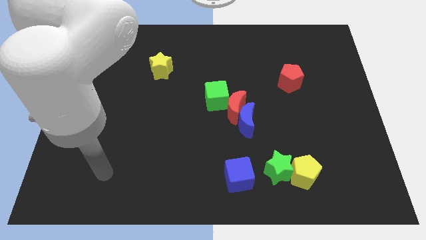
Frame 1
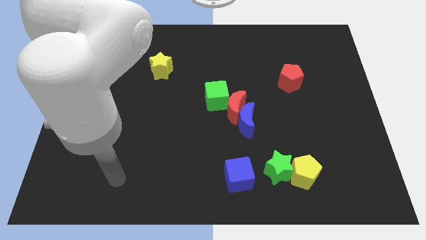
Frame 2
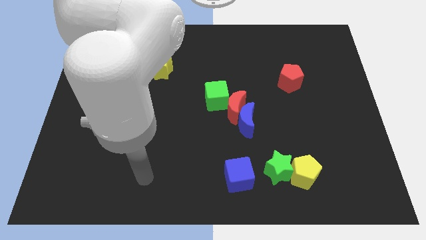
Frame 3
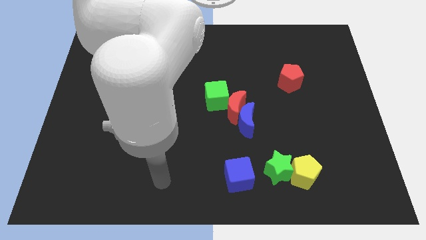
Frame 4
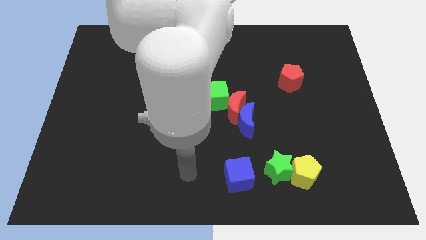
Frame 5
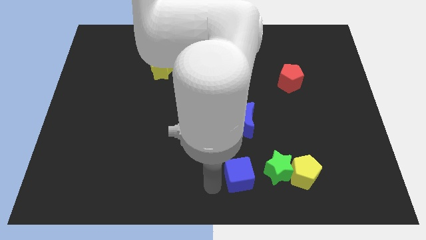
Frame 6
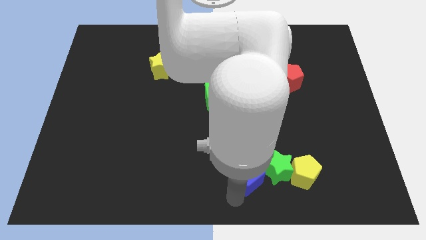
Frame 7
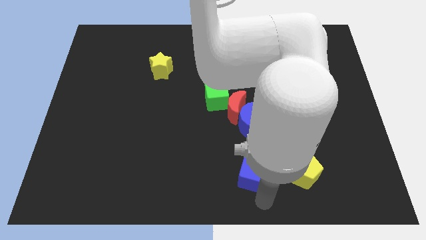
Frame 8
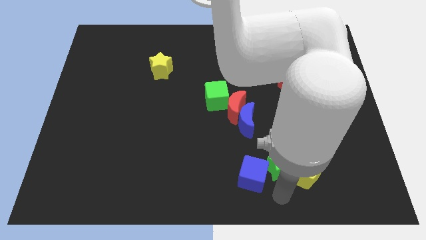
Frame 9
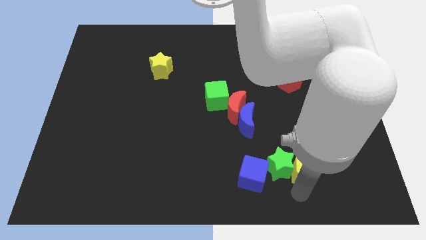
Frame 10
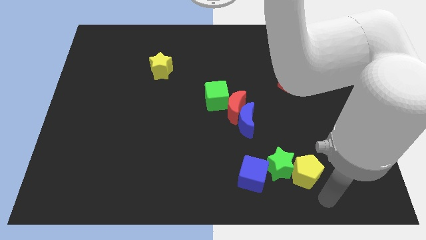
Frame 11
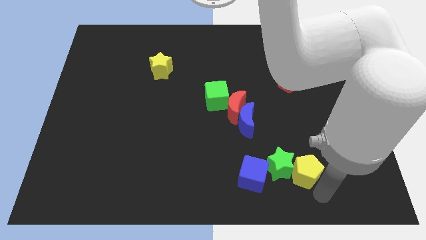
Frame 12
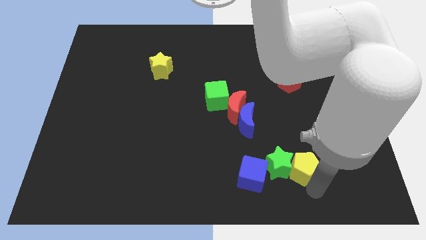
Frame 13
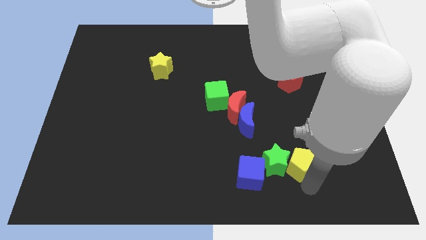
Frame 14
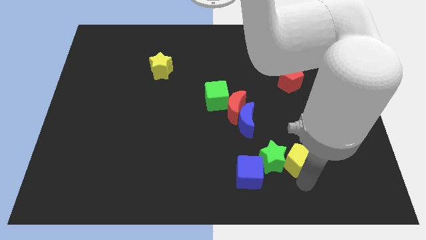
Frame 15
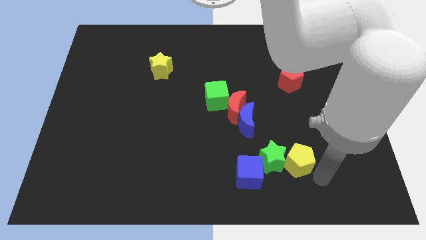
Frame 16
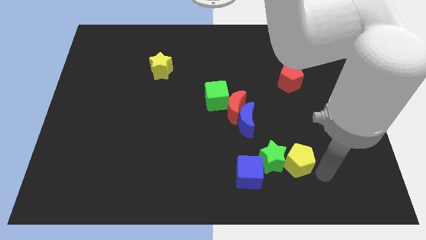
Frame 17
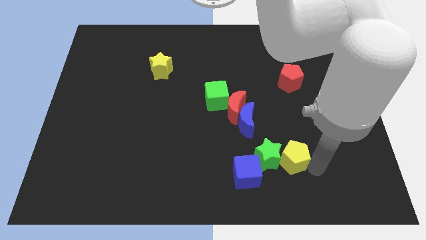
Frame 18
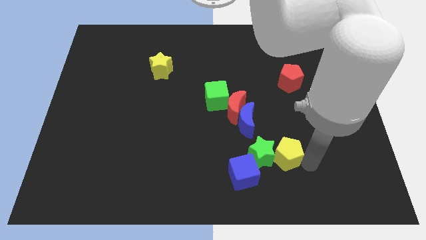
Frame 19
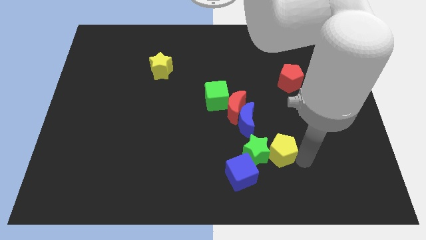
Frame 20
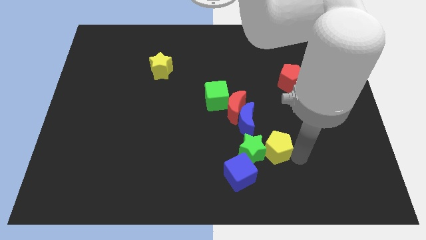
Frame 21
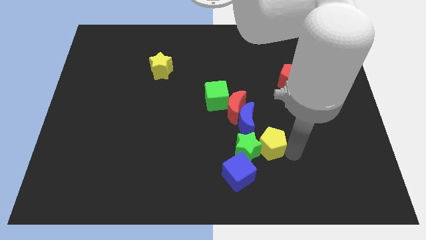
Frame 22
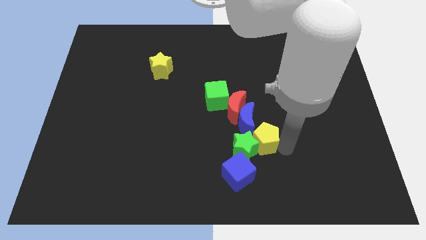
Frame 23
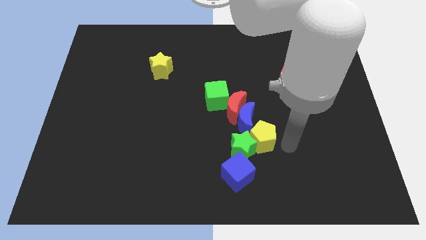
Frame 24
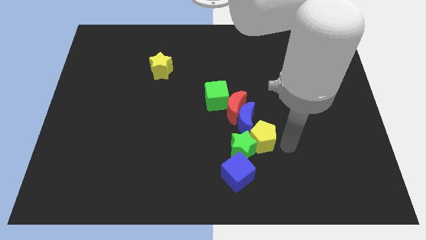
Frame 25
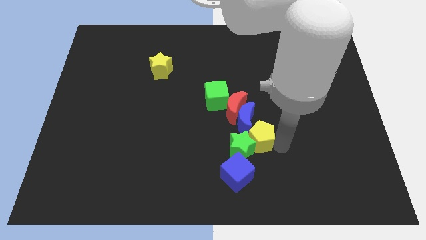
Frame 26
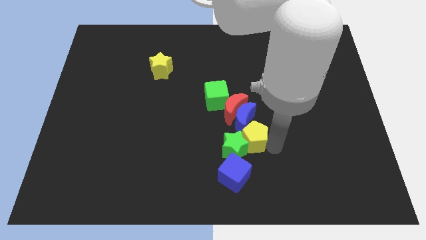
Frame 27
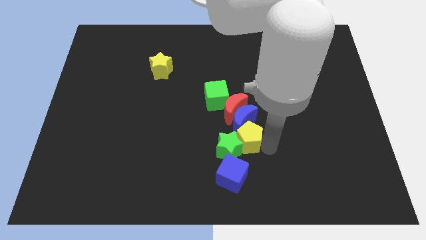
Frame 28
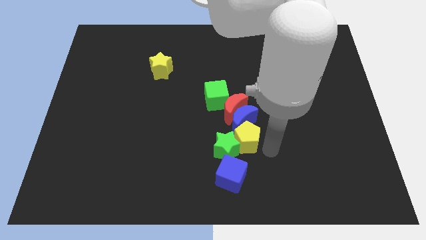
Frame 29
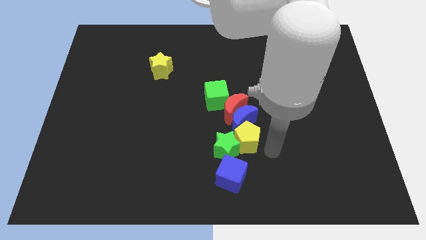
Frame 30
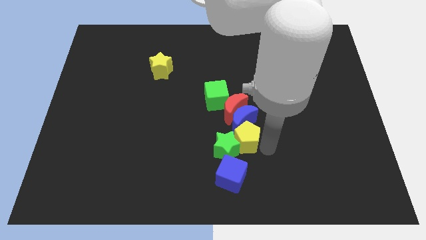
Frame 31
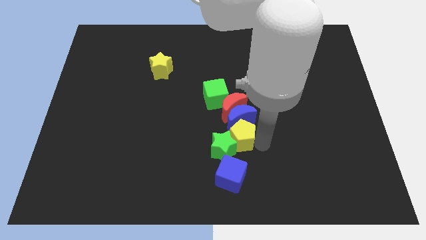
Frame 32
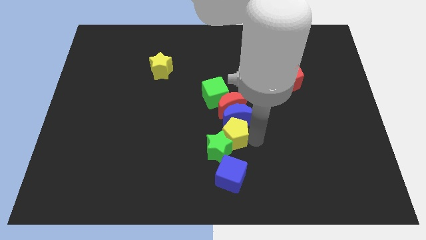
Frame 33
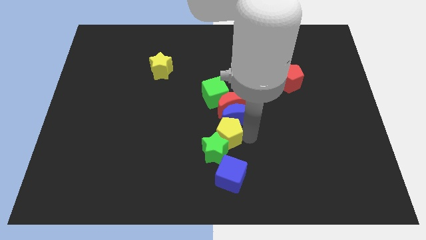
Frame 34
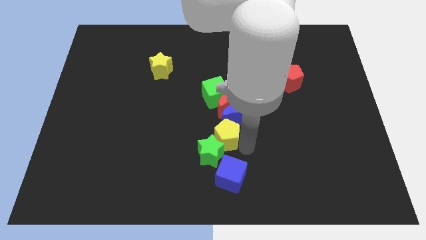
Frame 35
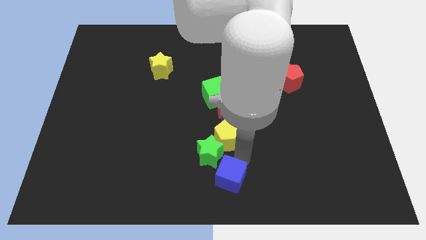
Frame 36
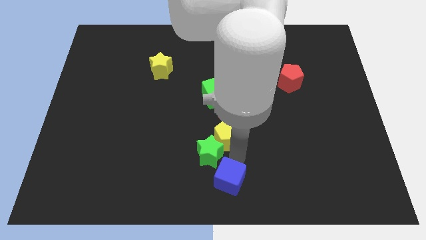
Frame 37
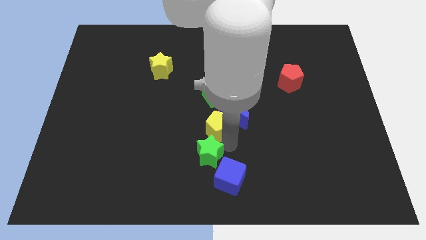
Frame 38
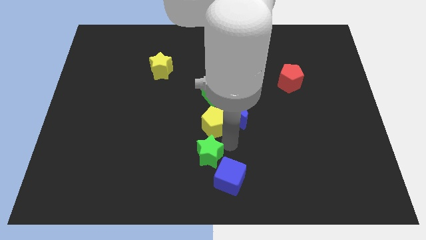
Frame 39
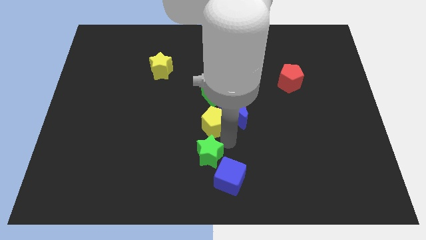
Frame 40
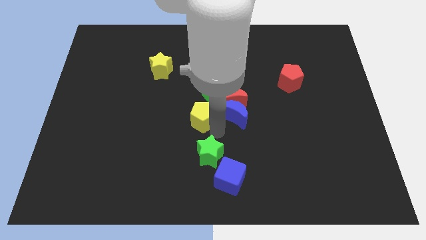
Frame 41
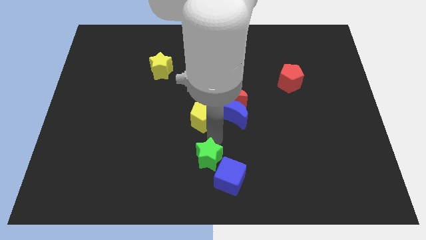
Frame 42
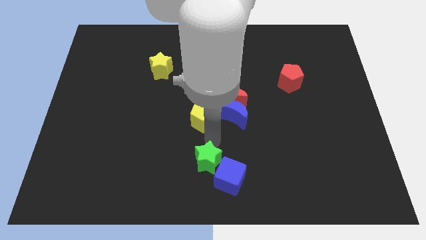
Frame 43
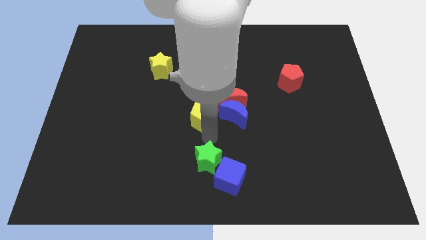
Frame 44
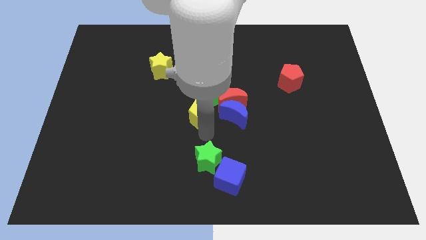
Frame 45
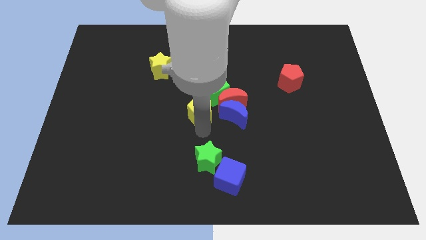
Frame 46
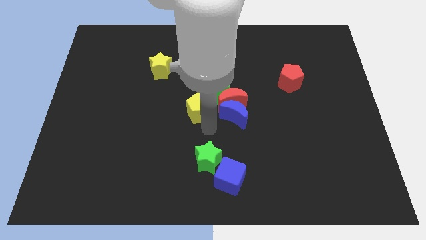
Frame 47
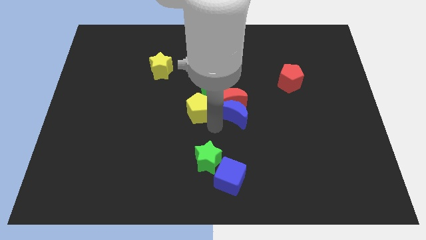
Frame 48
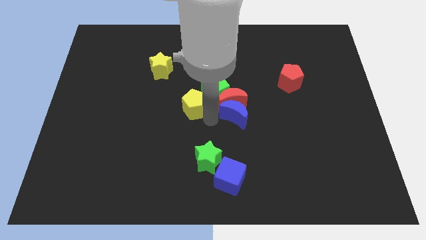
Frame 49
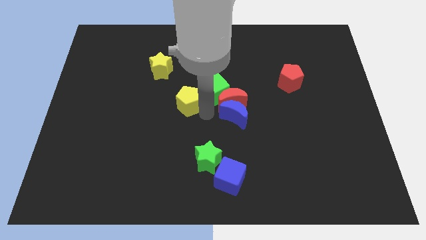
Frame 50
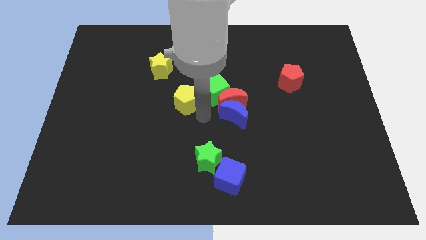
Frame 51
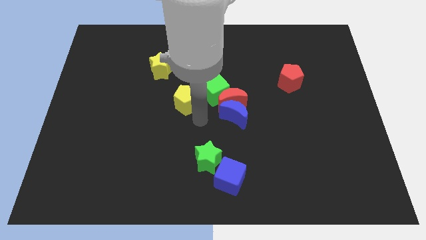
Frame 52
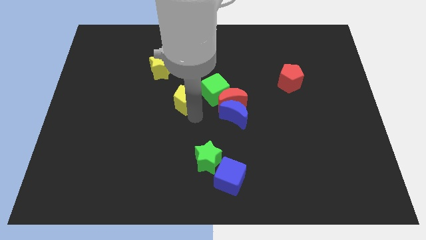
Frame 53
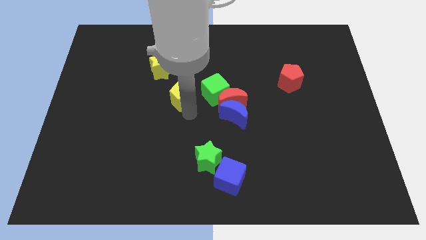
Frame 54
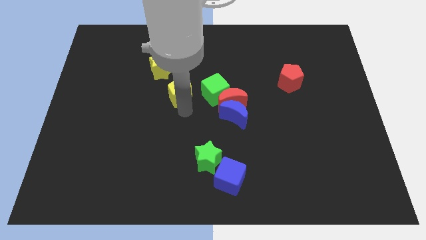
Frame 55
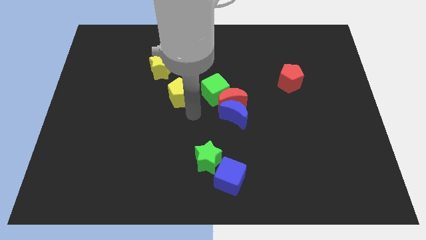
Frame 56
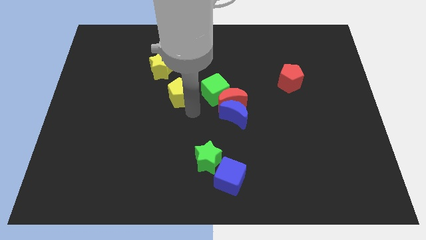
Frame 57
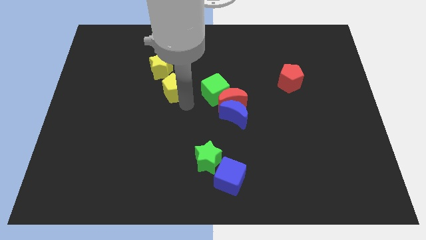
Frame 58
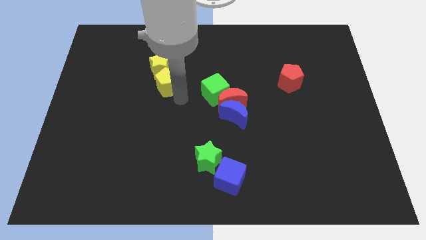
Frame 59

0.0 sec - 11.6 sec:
put the yellow pentagon close to the yellow star

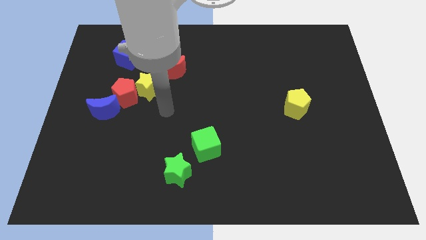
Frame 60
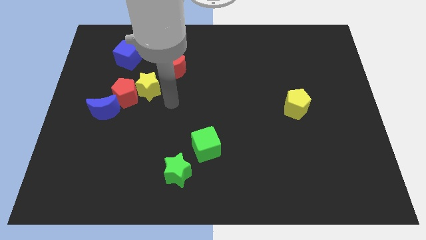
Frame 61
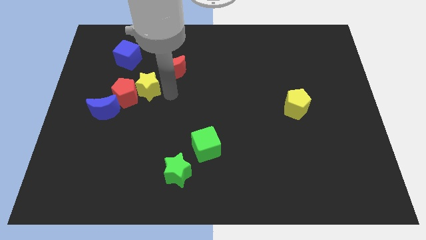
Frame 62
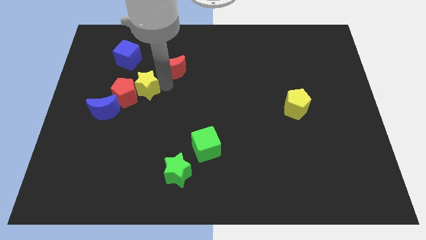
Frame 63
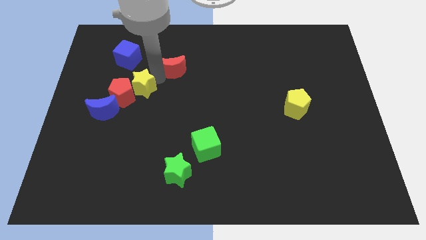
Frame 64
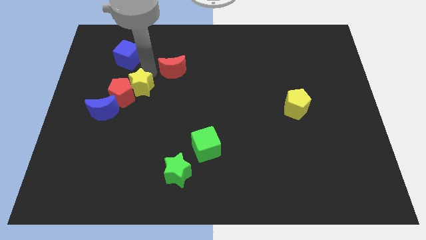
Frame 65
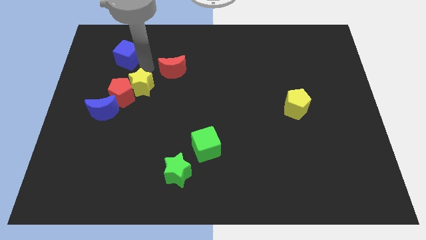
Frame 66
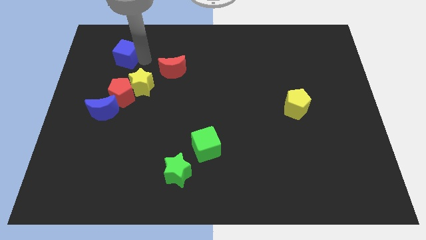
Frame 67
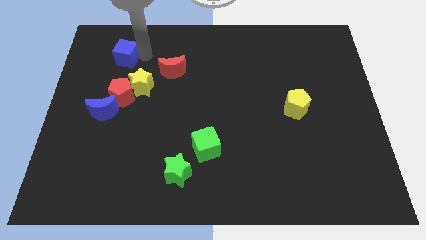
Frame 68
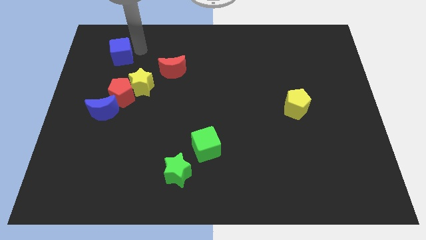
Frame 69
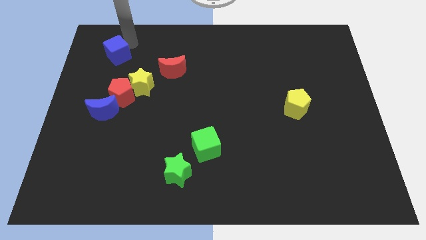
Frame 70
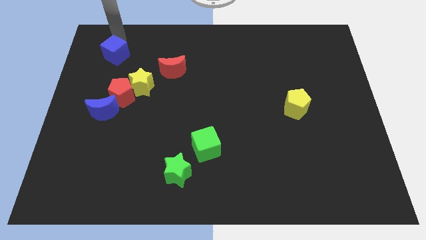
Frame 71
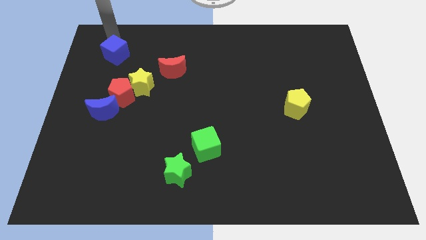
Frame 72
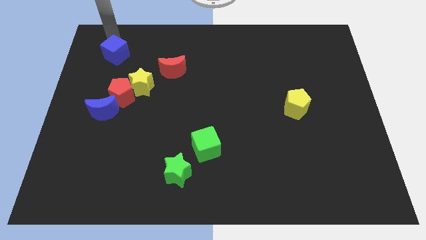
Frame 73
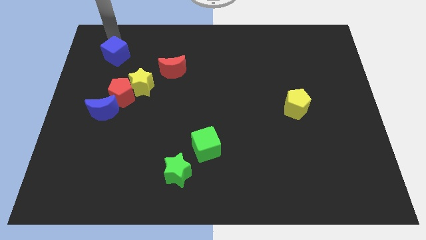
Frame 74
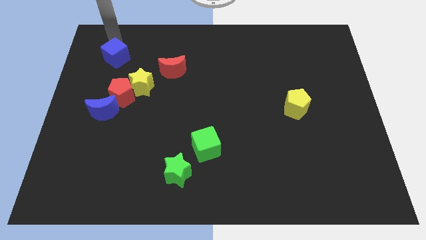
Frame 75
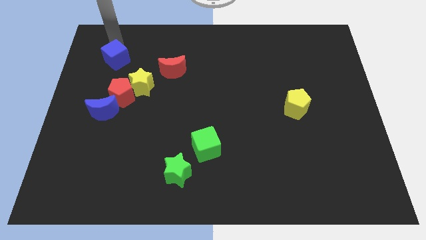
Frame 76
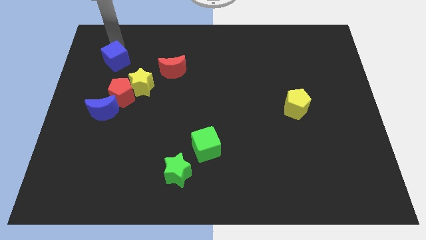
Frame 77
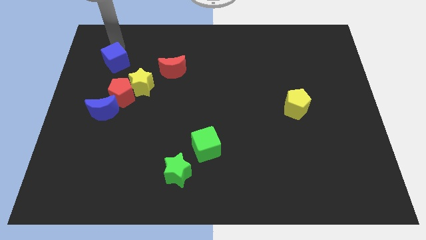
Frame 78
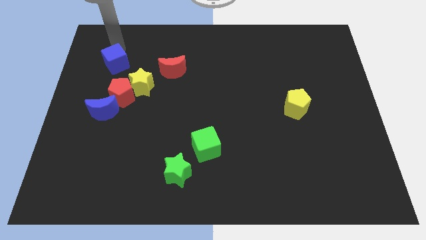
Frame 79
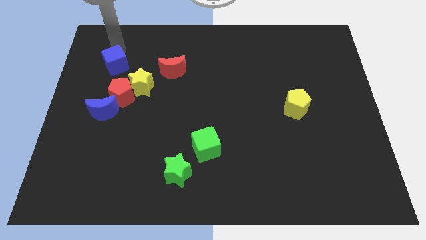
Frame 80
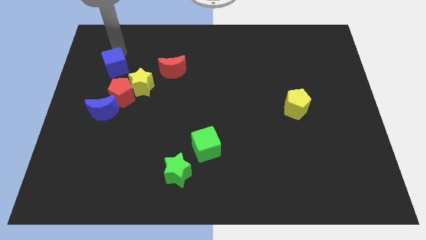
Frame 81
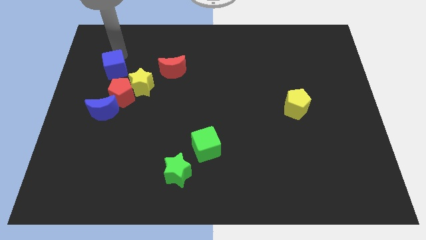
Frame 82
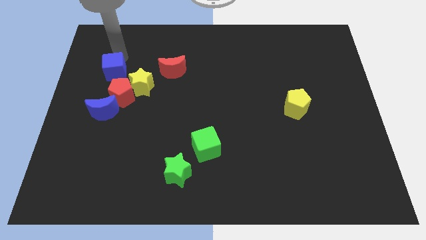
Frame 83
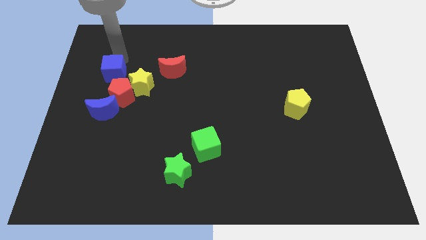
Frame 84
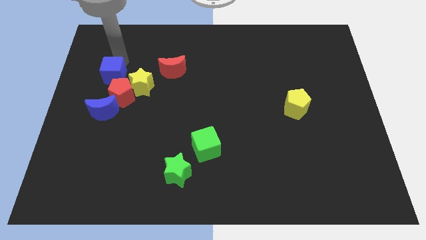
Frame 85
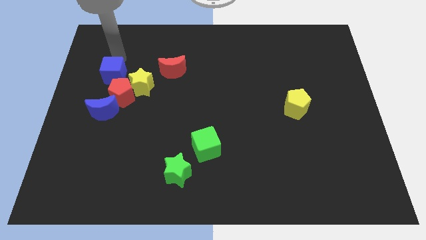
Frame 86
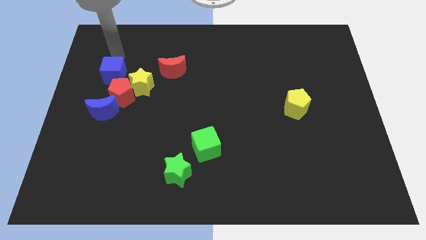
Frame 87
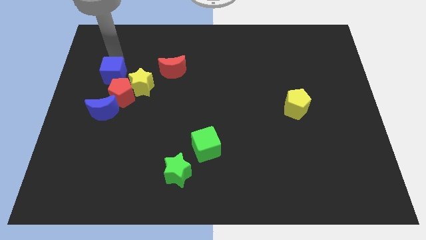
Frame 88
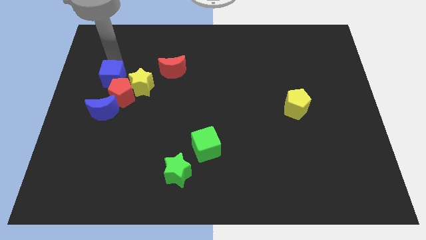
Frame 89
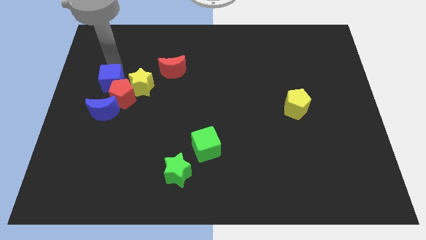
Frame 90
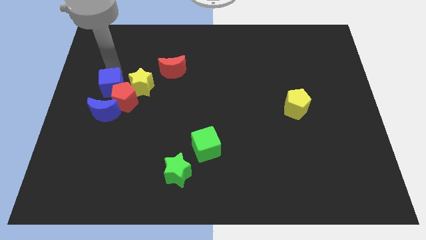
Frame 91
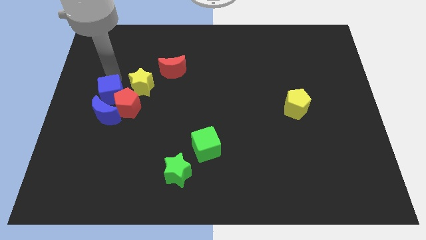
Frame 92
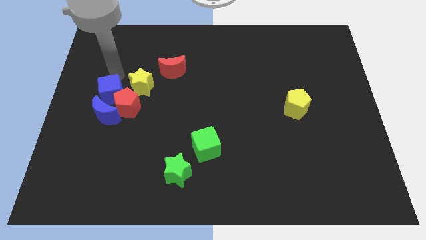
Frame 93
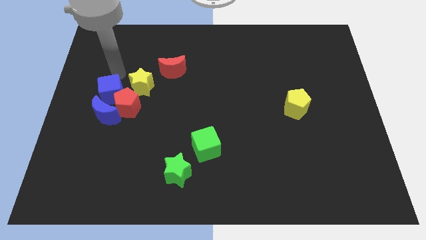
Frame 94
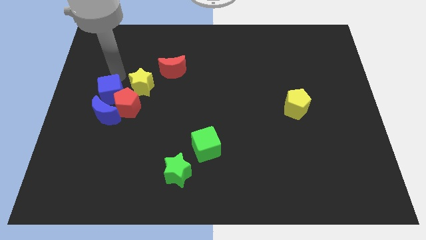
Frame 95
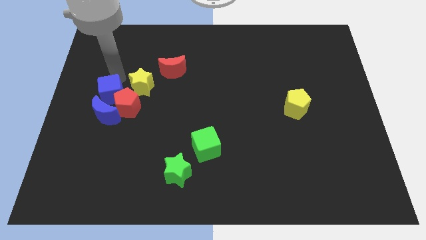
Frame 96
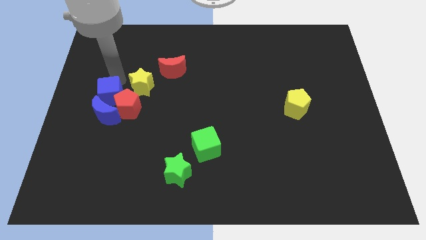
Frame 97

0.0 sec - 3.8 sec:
push the blue cube close to the blue moon
